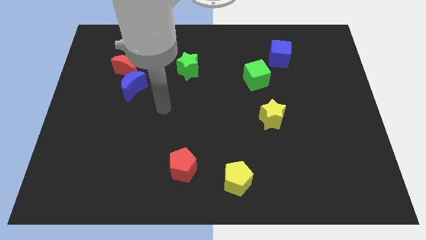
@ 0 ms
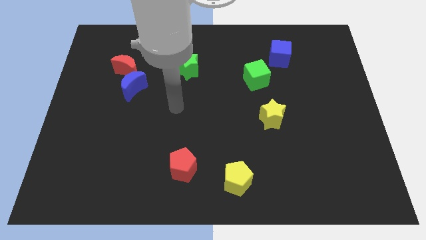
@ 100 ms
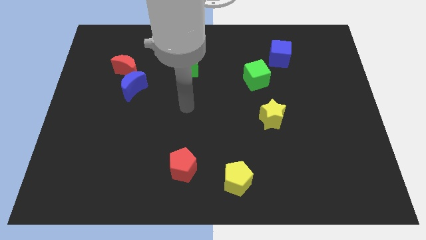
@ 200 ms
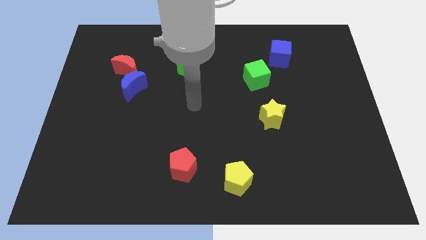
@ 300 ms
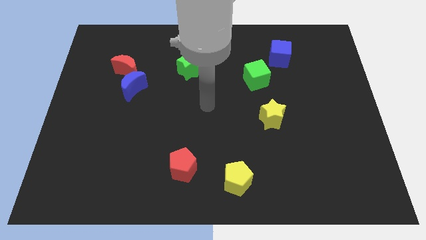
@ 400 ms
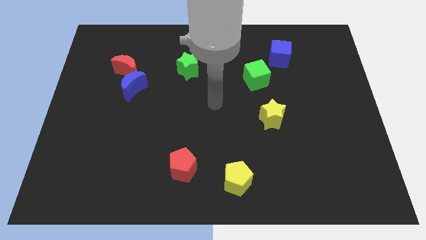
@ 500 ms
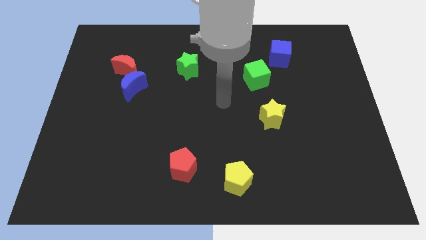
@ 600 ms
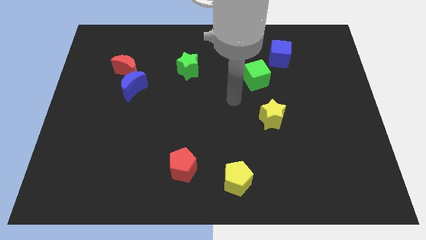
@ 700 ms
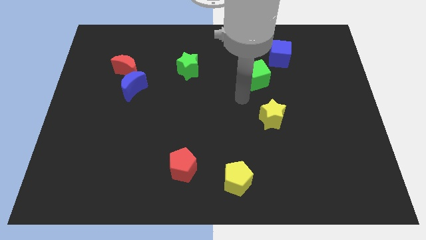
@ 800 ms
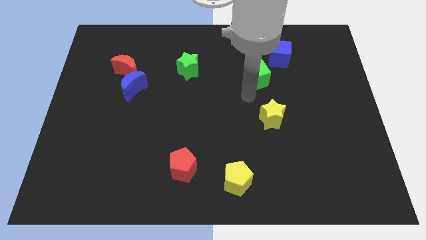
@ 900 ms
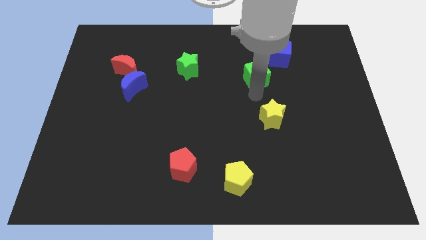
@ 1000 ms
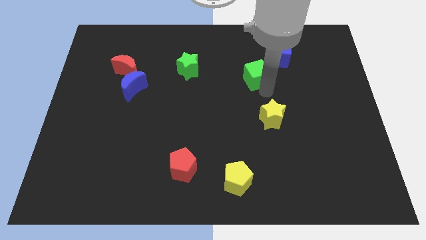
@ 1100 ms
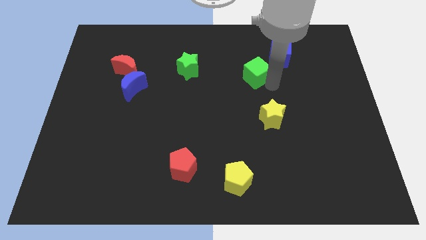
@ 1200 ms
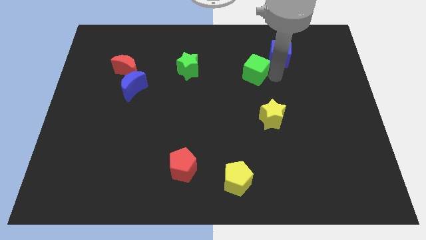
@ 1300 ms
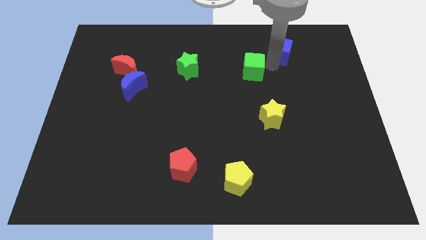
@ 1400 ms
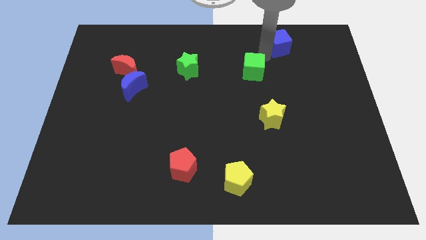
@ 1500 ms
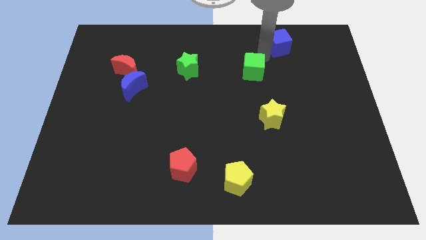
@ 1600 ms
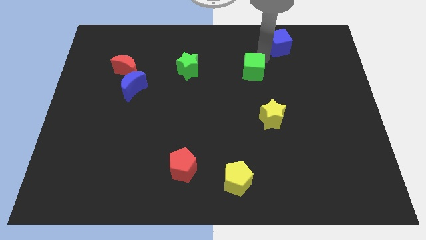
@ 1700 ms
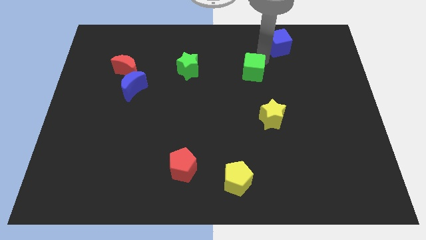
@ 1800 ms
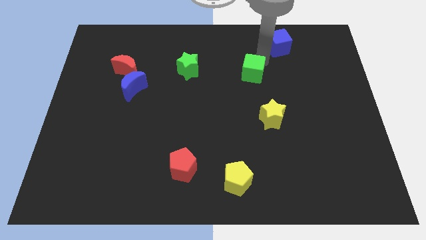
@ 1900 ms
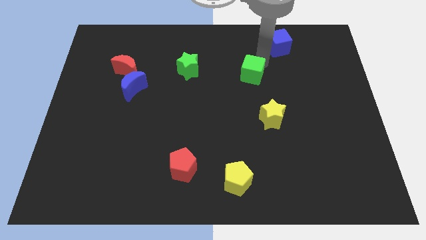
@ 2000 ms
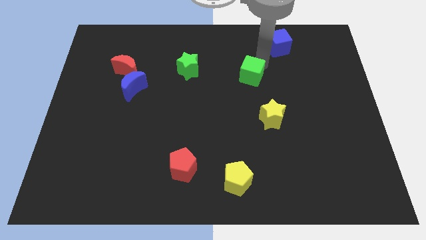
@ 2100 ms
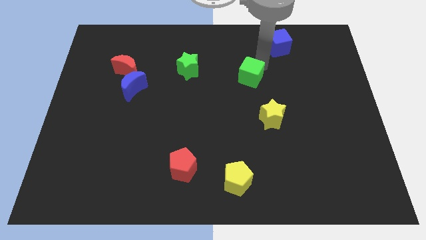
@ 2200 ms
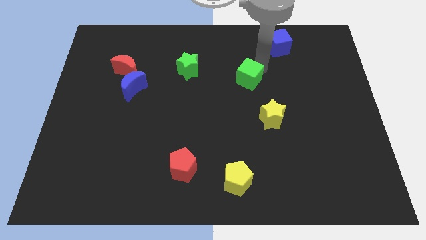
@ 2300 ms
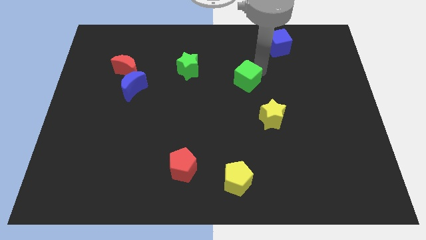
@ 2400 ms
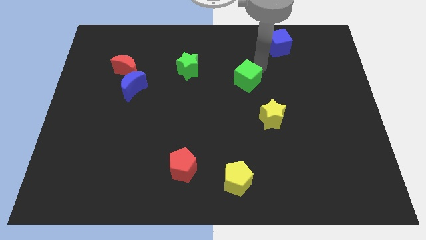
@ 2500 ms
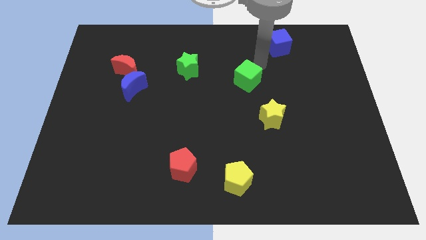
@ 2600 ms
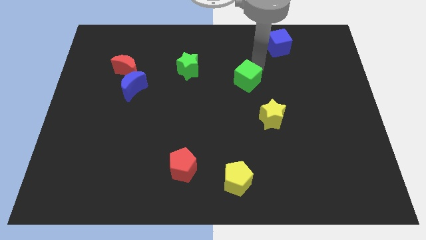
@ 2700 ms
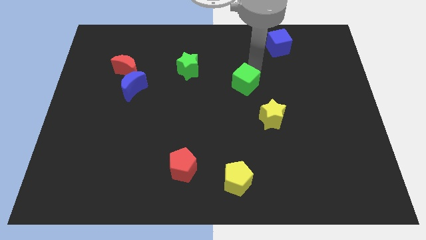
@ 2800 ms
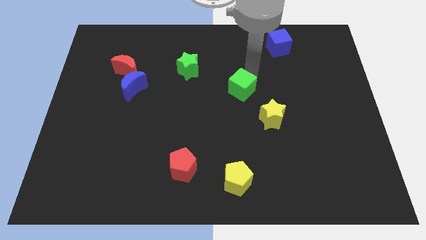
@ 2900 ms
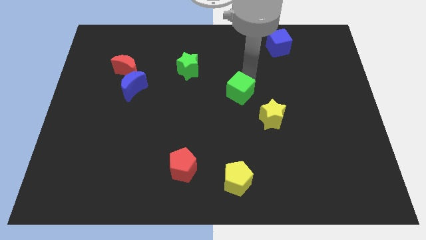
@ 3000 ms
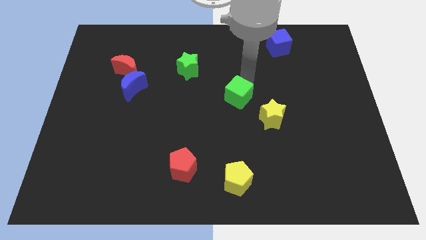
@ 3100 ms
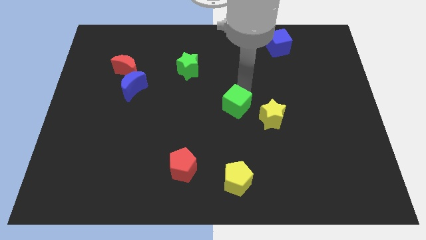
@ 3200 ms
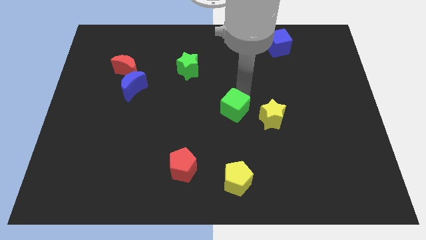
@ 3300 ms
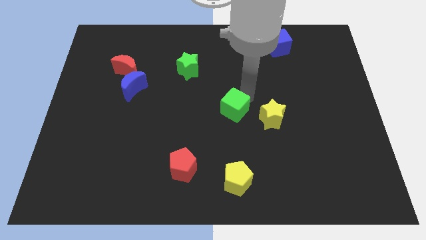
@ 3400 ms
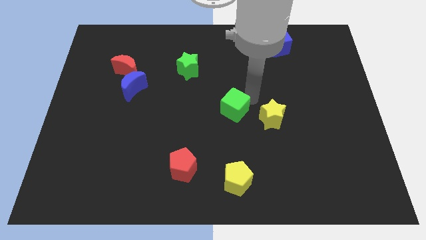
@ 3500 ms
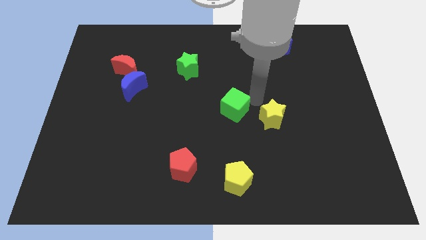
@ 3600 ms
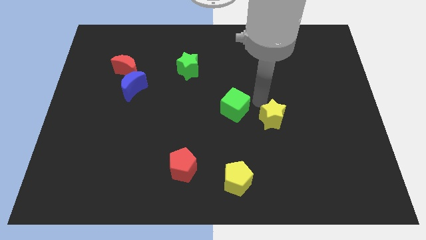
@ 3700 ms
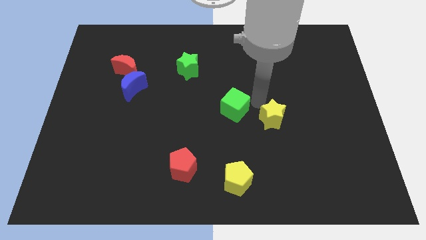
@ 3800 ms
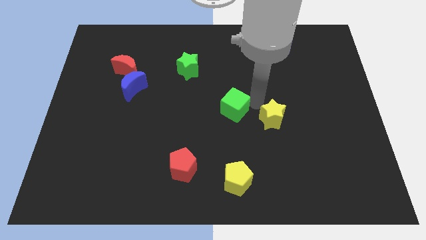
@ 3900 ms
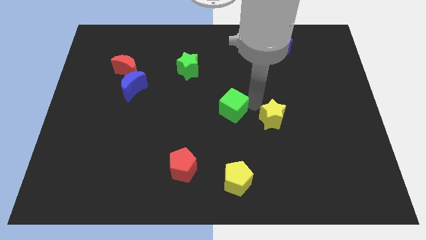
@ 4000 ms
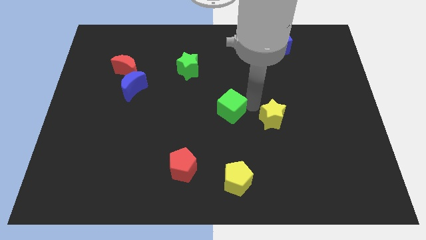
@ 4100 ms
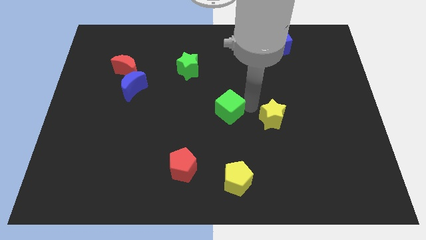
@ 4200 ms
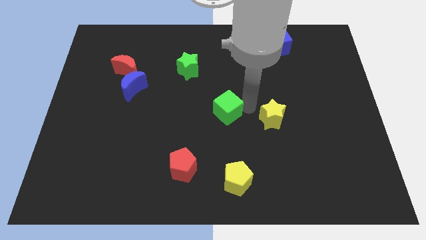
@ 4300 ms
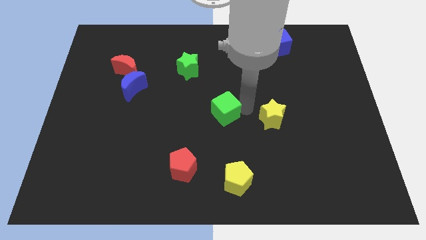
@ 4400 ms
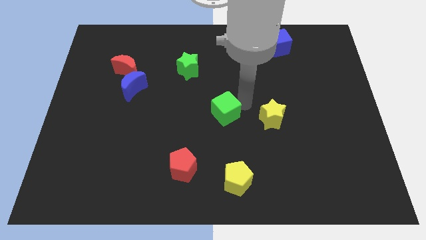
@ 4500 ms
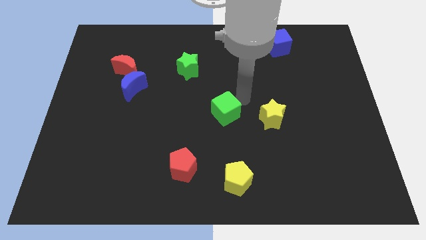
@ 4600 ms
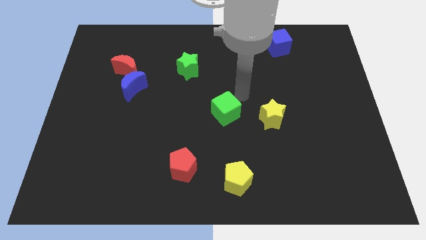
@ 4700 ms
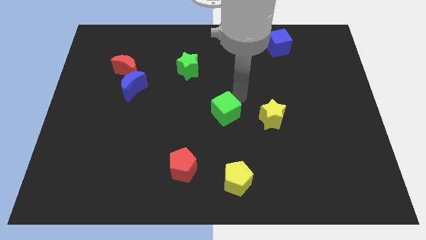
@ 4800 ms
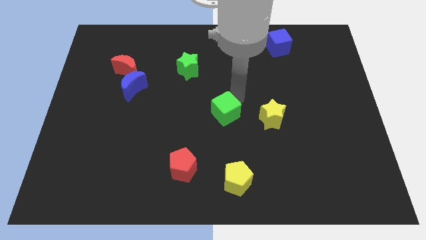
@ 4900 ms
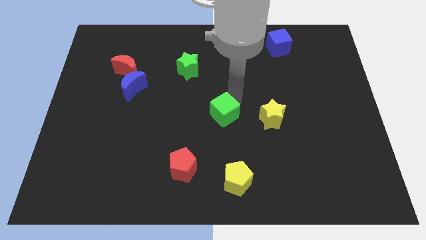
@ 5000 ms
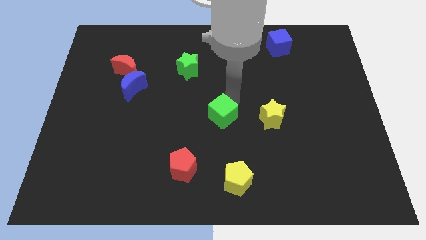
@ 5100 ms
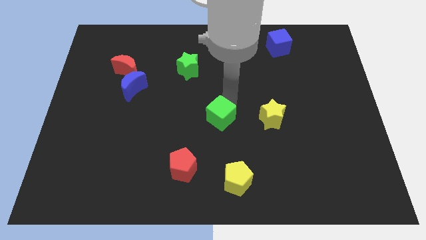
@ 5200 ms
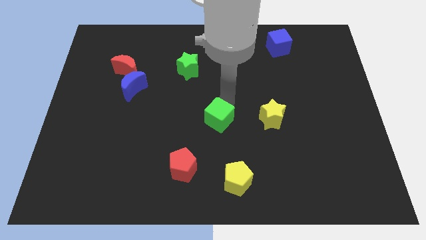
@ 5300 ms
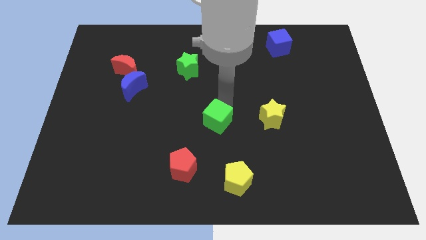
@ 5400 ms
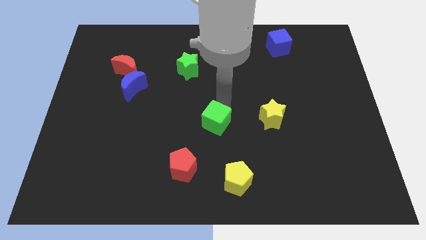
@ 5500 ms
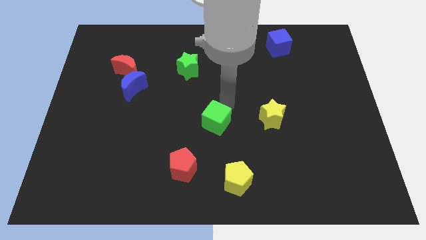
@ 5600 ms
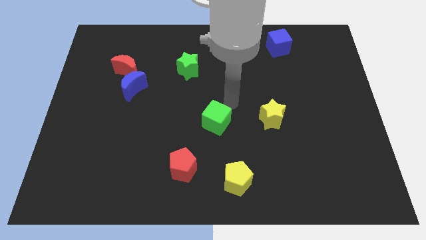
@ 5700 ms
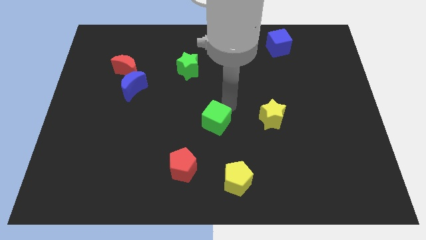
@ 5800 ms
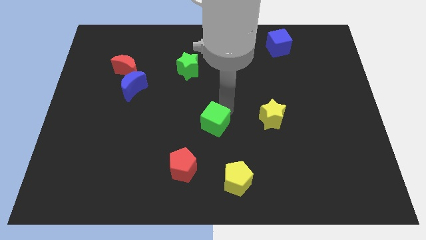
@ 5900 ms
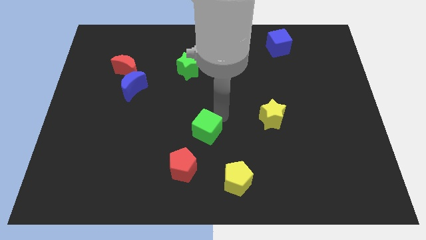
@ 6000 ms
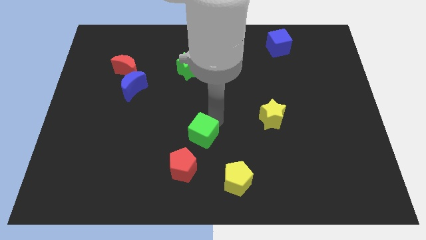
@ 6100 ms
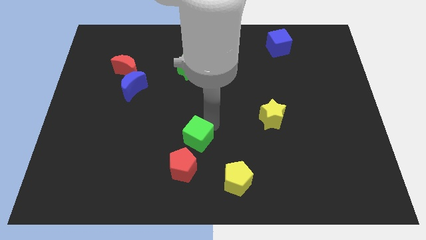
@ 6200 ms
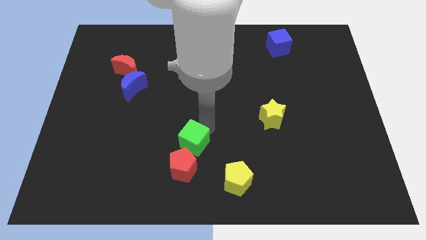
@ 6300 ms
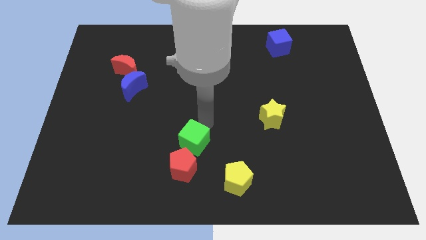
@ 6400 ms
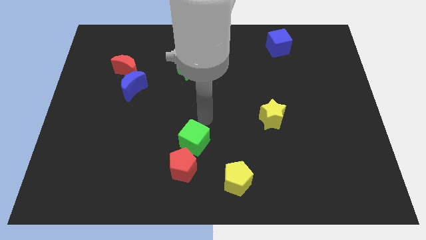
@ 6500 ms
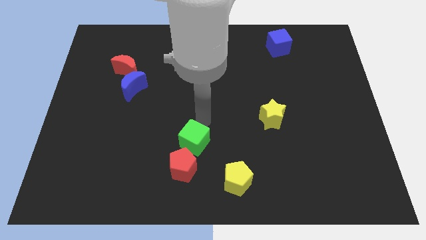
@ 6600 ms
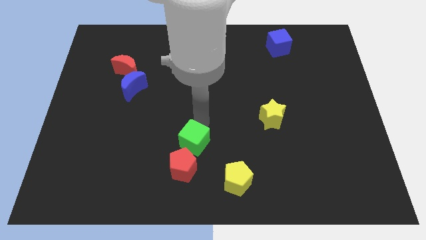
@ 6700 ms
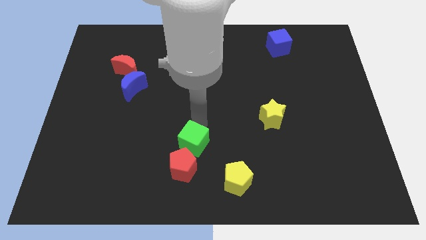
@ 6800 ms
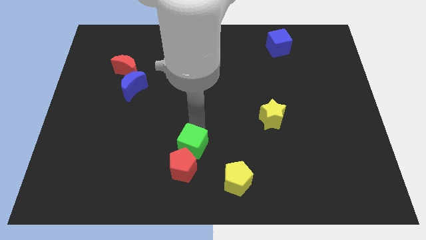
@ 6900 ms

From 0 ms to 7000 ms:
slide the green cube to the red pentagon
